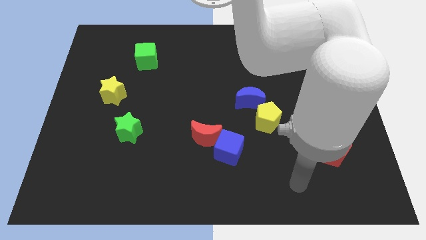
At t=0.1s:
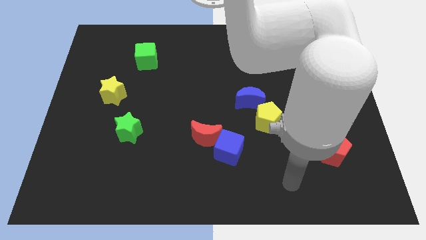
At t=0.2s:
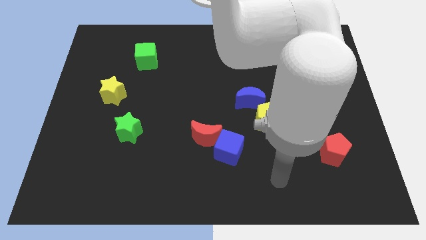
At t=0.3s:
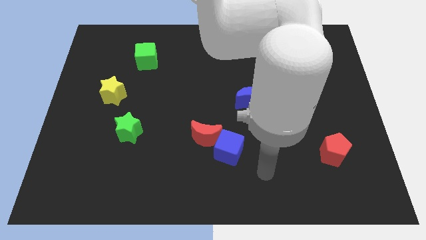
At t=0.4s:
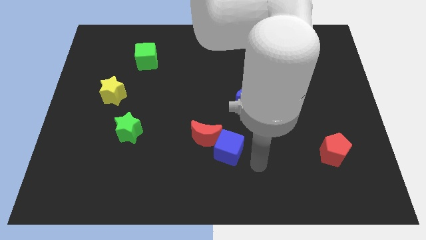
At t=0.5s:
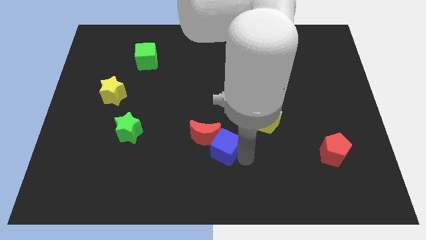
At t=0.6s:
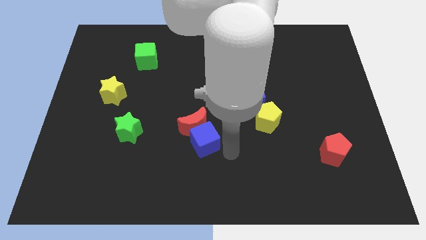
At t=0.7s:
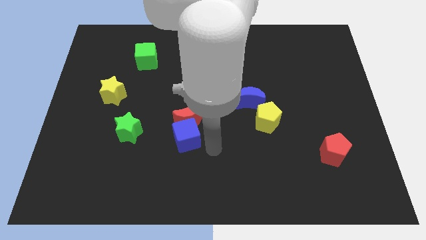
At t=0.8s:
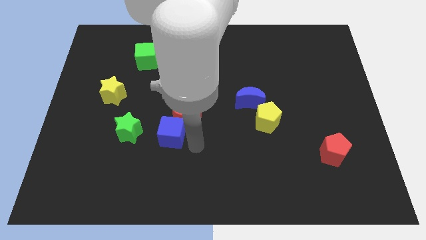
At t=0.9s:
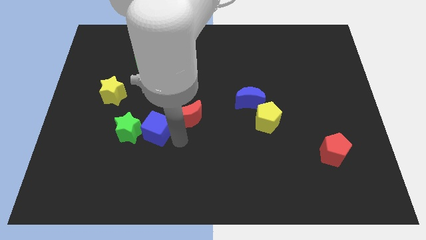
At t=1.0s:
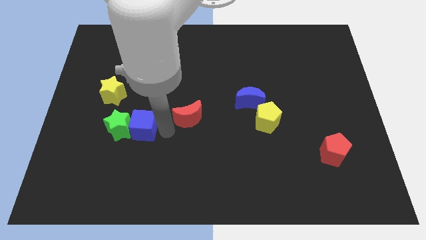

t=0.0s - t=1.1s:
pull the red moon apart from the blue cube

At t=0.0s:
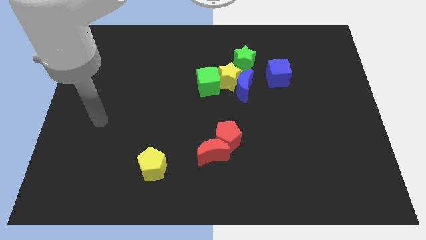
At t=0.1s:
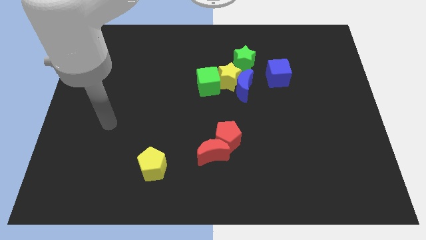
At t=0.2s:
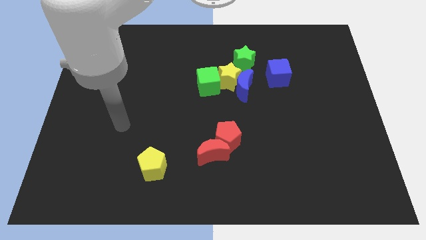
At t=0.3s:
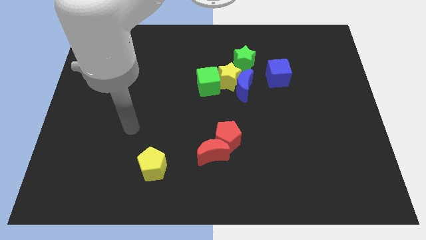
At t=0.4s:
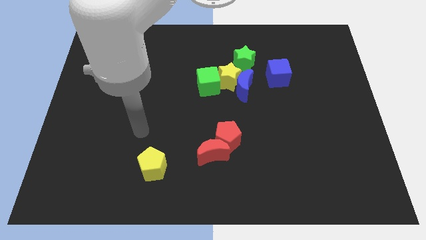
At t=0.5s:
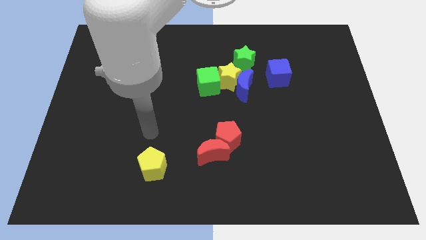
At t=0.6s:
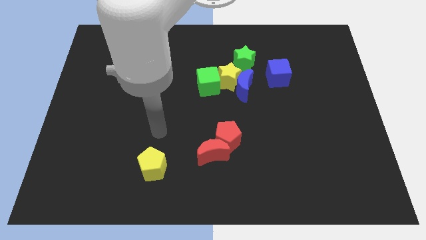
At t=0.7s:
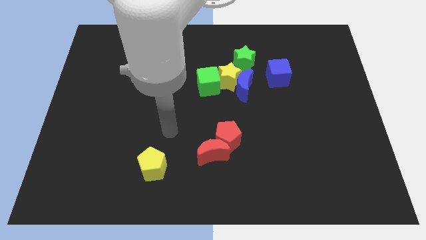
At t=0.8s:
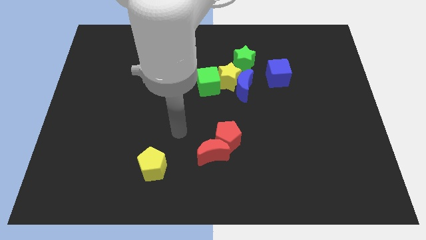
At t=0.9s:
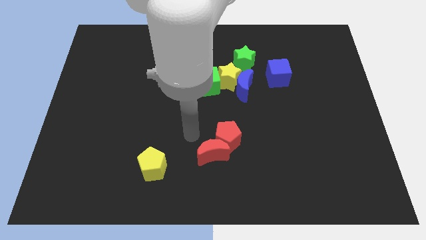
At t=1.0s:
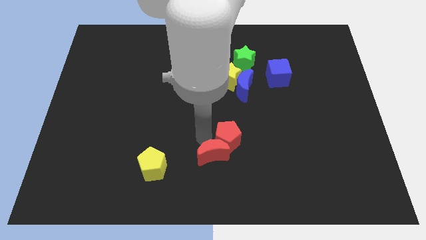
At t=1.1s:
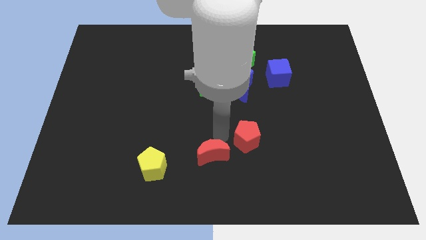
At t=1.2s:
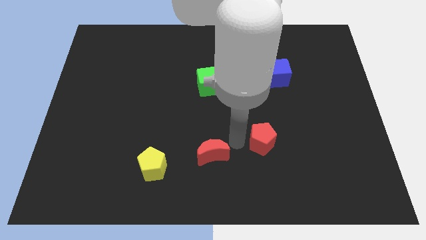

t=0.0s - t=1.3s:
move the red moon away from the red pentagon

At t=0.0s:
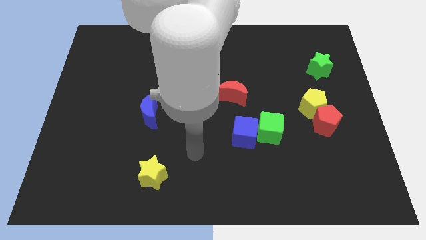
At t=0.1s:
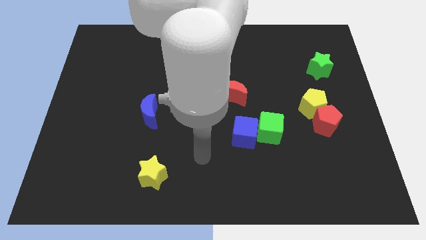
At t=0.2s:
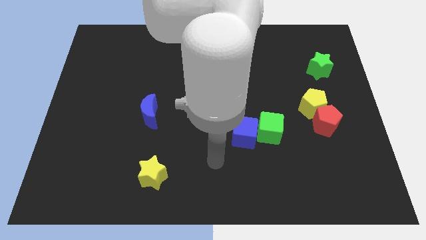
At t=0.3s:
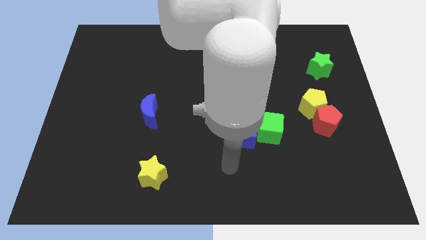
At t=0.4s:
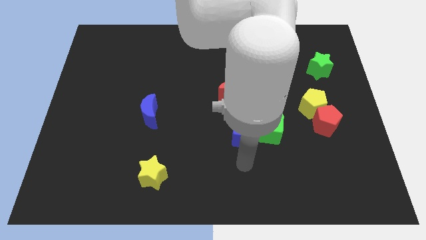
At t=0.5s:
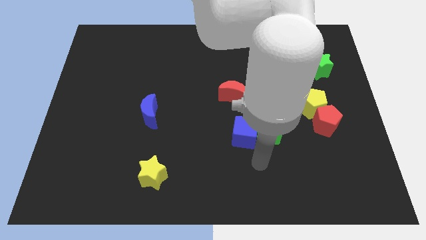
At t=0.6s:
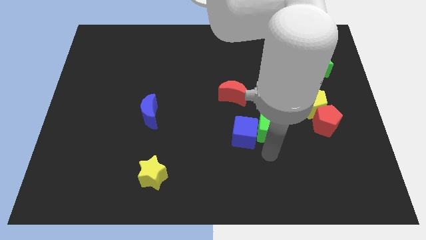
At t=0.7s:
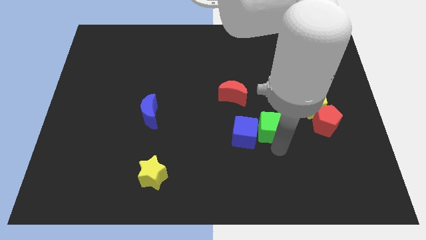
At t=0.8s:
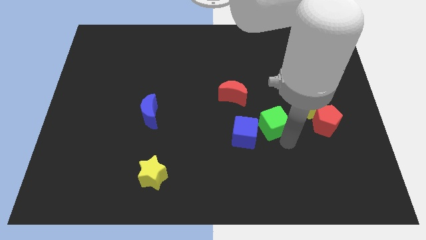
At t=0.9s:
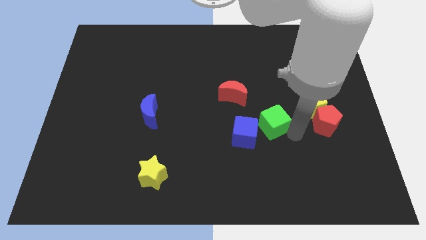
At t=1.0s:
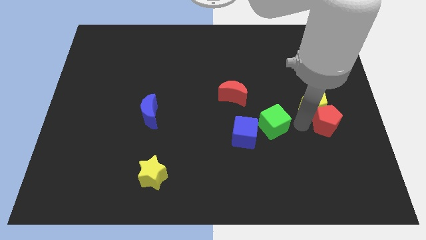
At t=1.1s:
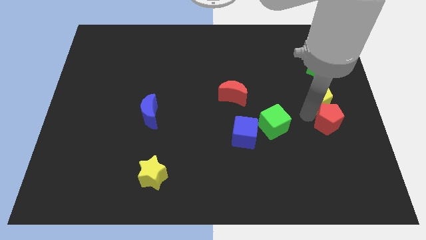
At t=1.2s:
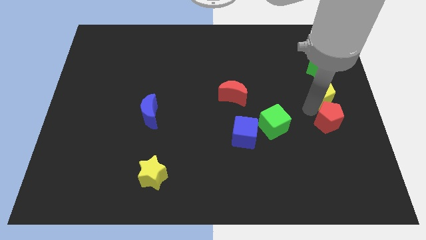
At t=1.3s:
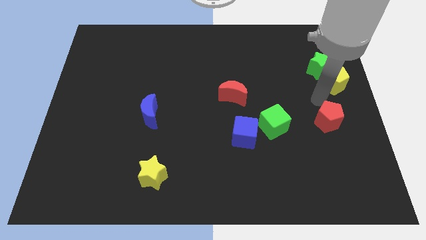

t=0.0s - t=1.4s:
move the red pentagon away from the yellow pentagon

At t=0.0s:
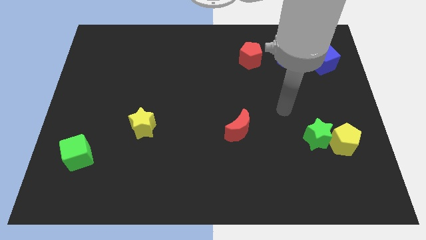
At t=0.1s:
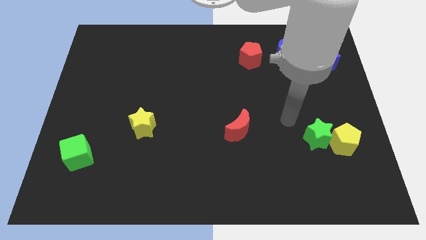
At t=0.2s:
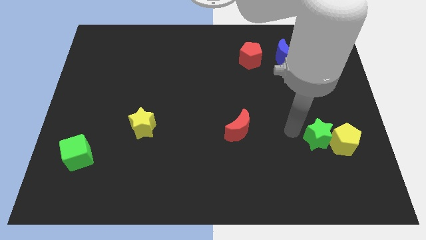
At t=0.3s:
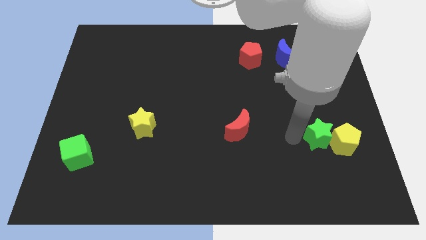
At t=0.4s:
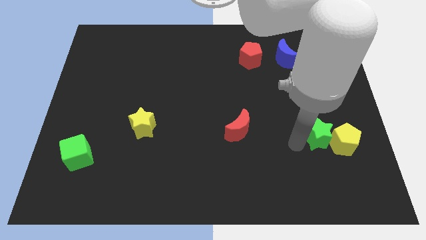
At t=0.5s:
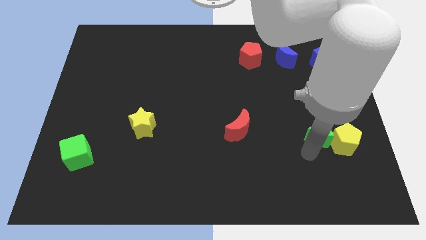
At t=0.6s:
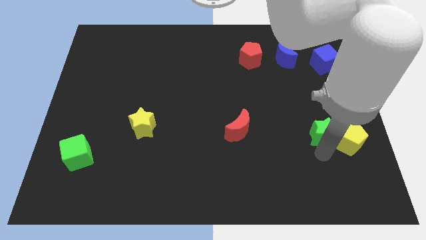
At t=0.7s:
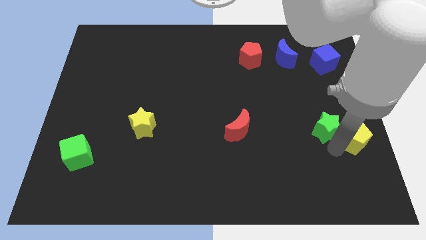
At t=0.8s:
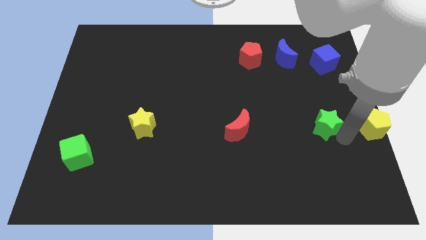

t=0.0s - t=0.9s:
move the green star away from the yellow pentagon

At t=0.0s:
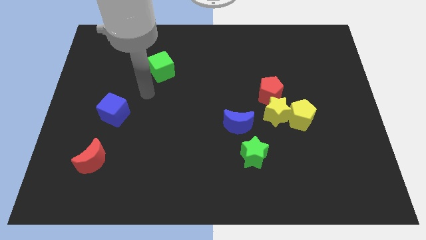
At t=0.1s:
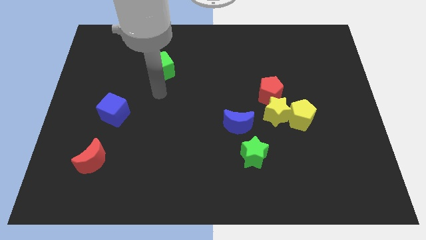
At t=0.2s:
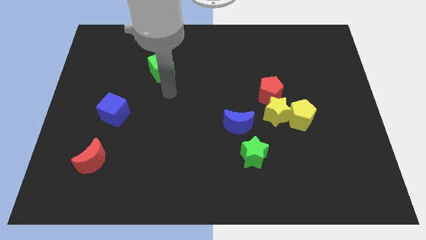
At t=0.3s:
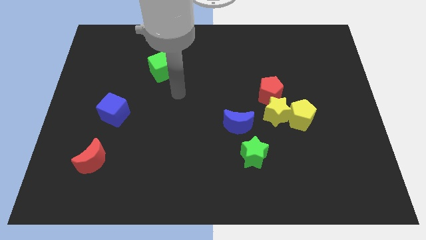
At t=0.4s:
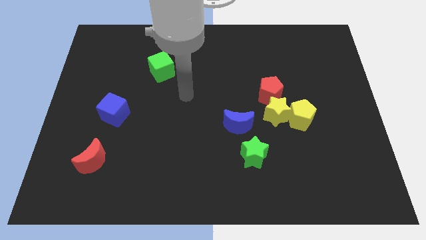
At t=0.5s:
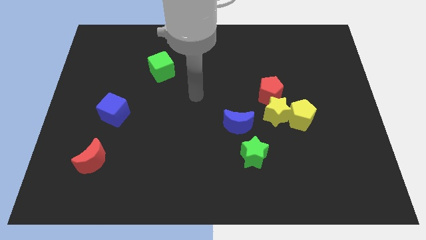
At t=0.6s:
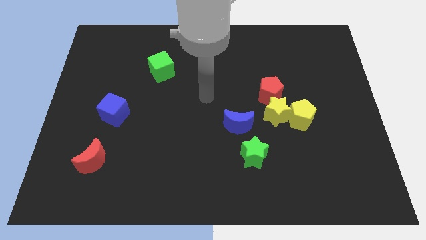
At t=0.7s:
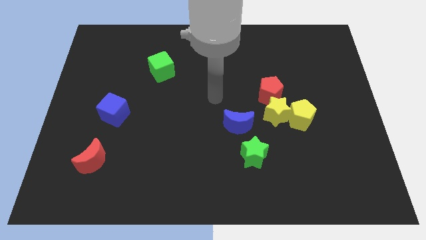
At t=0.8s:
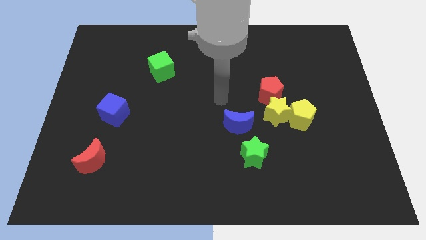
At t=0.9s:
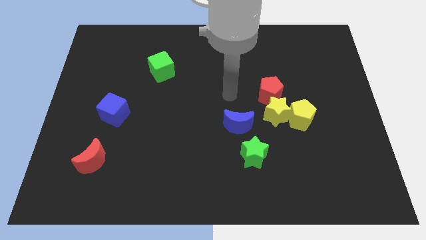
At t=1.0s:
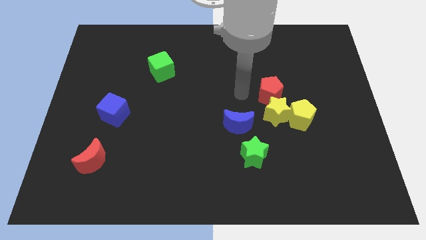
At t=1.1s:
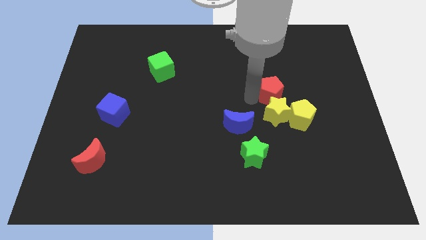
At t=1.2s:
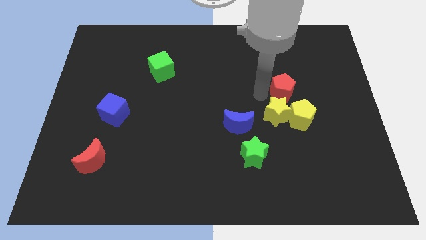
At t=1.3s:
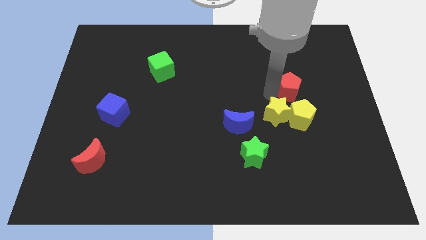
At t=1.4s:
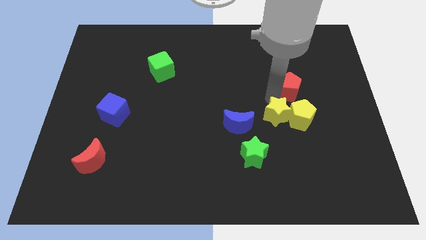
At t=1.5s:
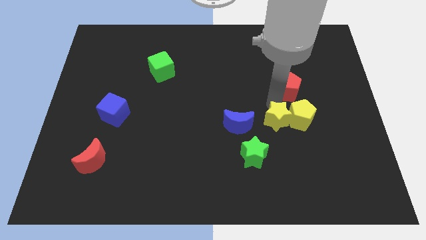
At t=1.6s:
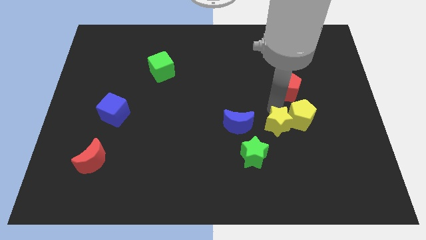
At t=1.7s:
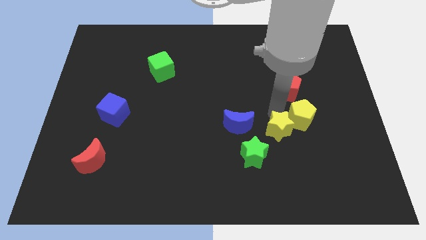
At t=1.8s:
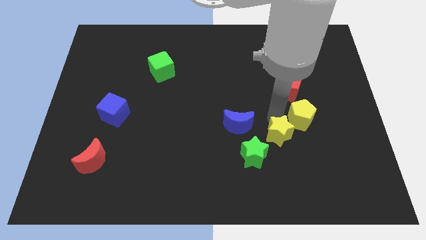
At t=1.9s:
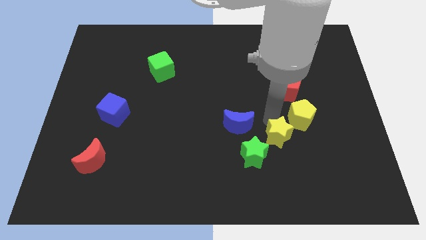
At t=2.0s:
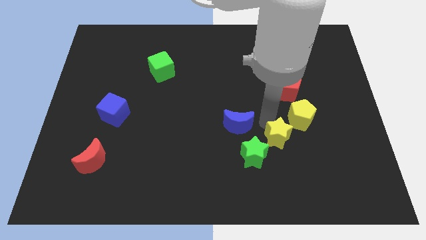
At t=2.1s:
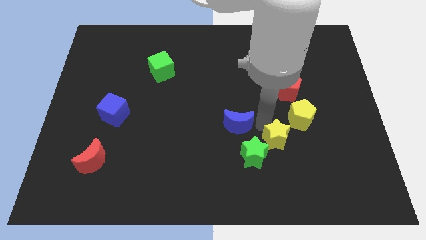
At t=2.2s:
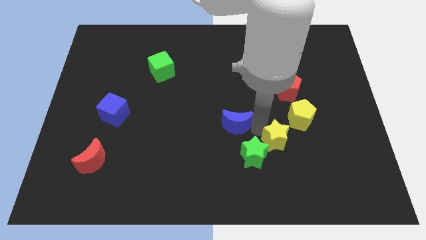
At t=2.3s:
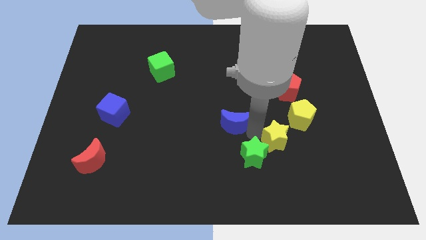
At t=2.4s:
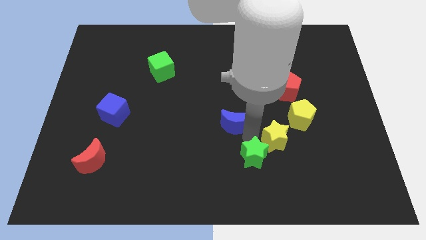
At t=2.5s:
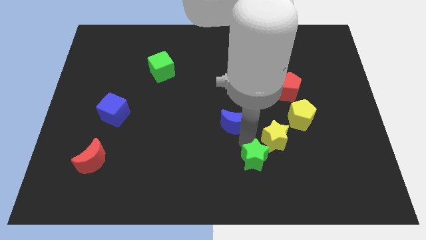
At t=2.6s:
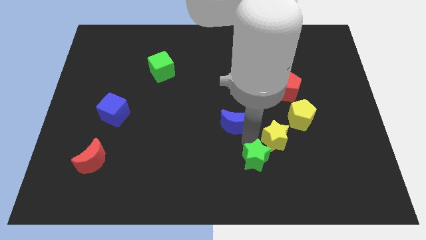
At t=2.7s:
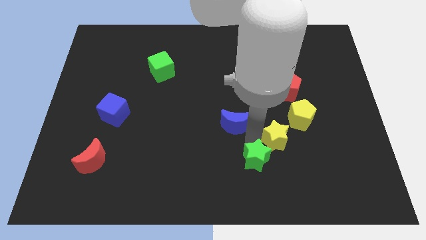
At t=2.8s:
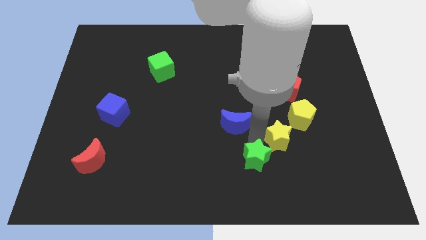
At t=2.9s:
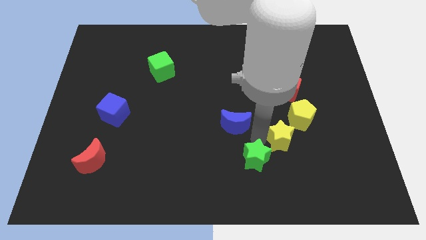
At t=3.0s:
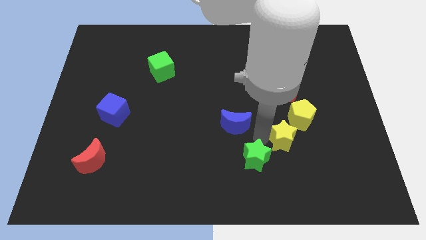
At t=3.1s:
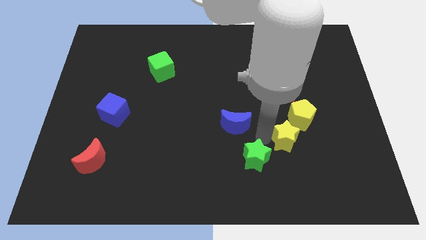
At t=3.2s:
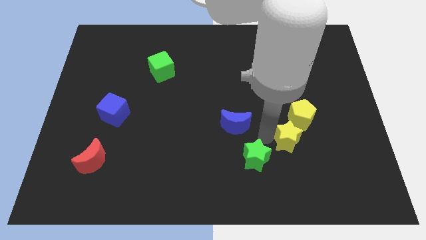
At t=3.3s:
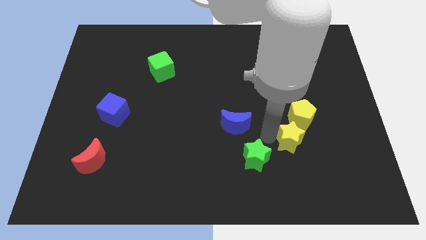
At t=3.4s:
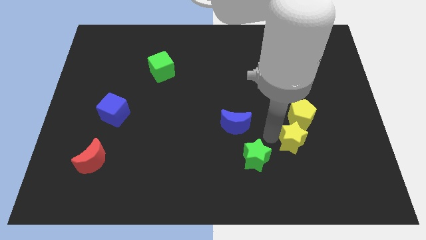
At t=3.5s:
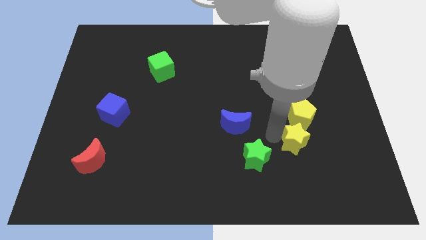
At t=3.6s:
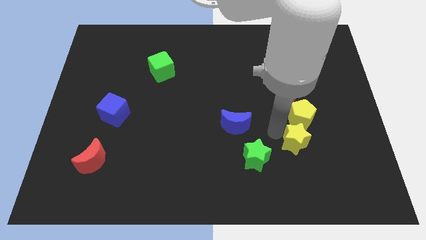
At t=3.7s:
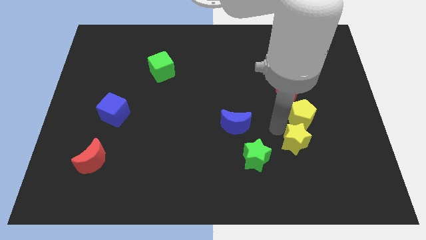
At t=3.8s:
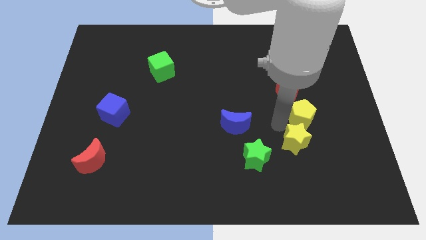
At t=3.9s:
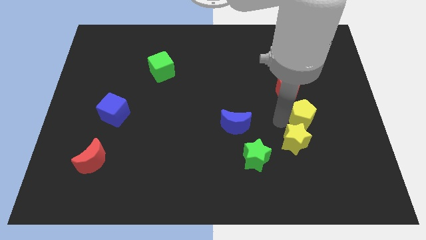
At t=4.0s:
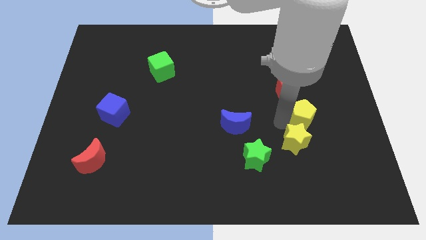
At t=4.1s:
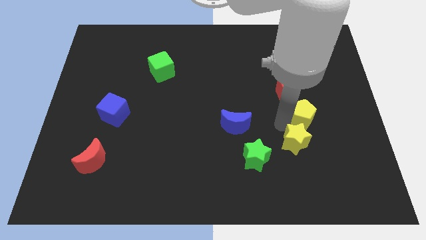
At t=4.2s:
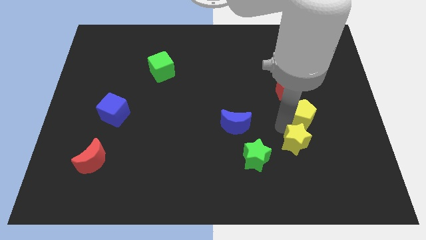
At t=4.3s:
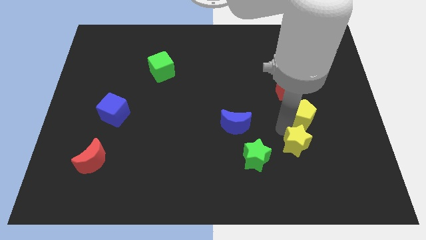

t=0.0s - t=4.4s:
move the yellow star away from the yellow pentagon, red pentagon, and blue moon

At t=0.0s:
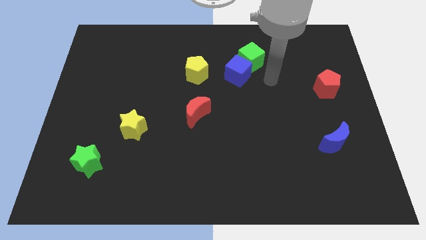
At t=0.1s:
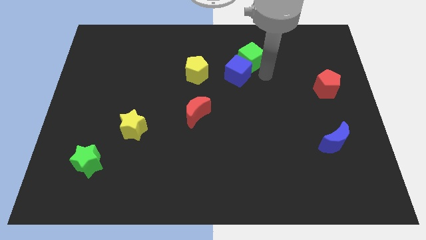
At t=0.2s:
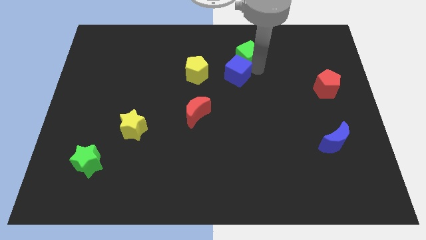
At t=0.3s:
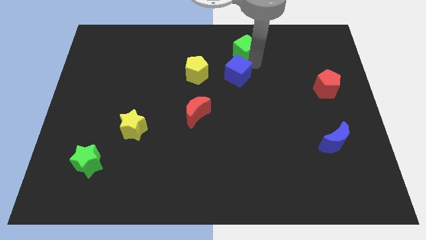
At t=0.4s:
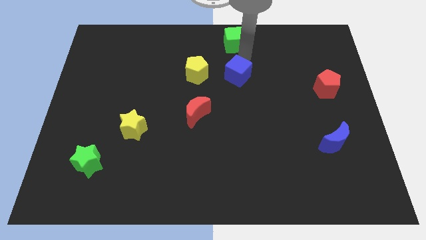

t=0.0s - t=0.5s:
move the blue cube away from the green cube
